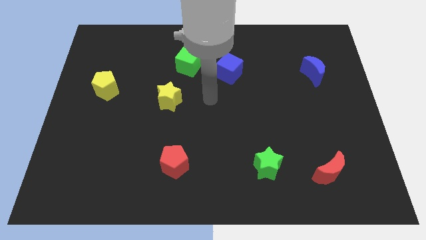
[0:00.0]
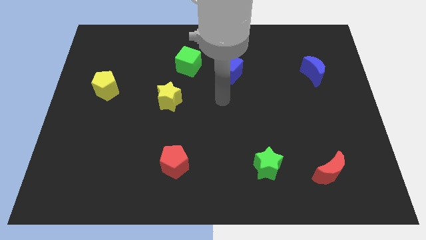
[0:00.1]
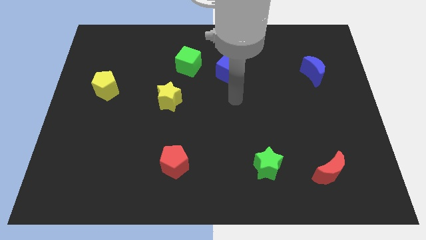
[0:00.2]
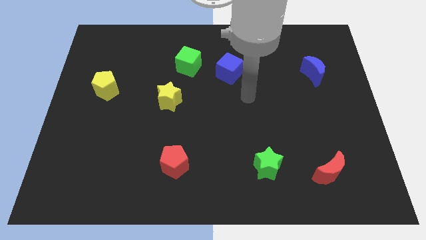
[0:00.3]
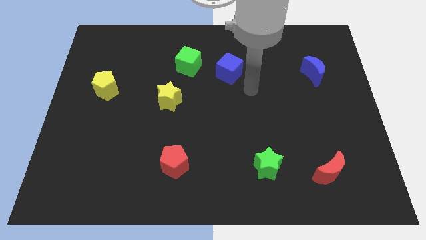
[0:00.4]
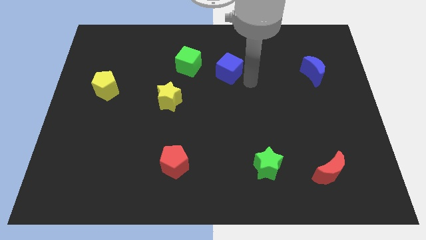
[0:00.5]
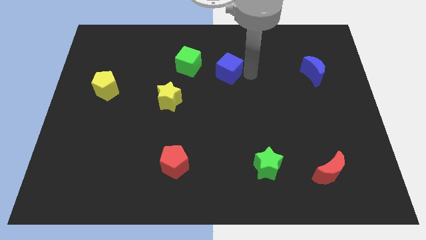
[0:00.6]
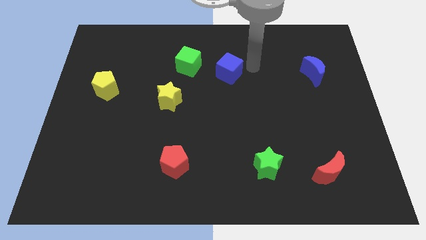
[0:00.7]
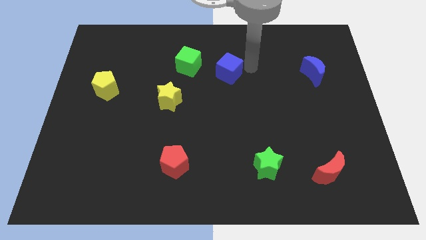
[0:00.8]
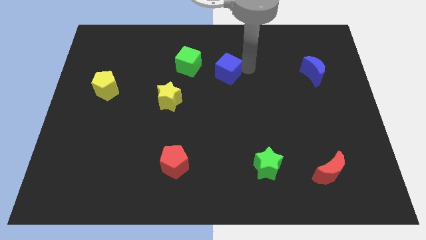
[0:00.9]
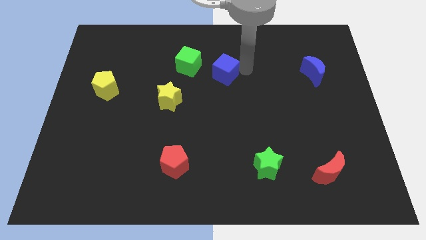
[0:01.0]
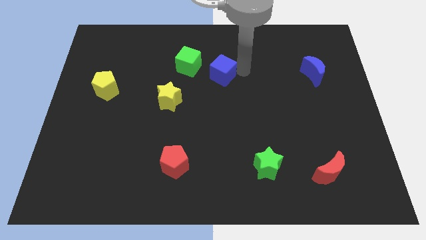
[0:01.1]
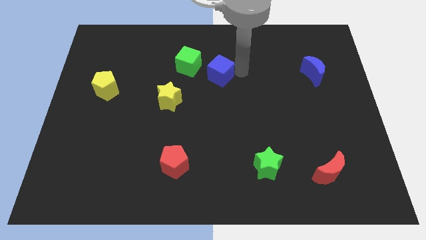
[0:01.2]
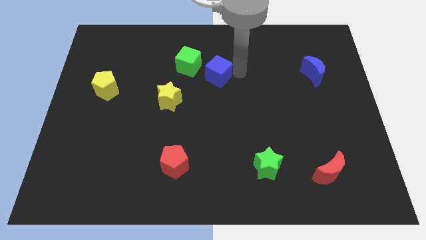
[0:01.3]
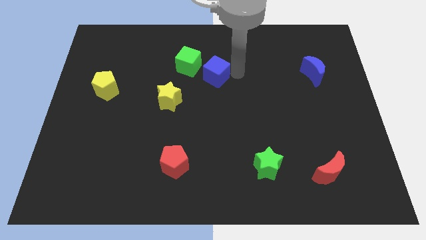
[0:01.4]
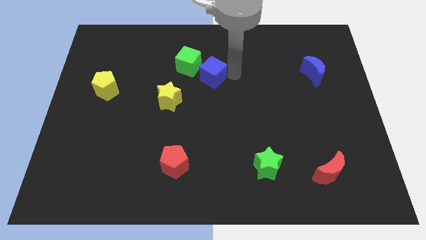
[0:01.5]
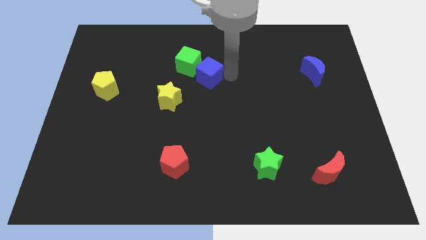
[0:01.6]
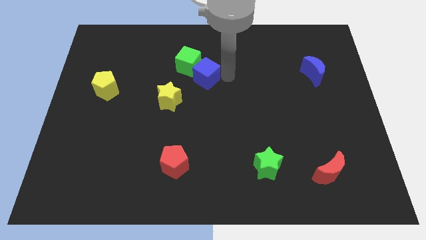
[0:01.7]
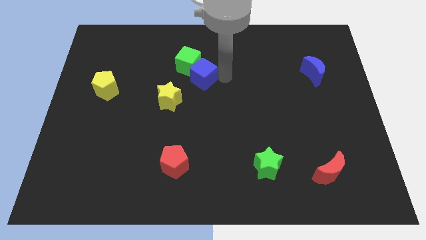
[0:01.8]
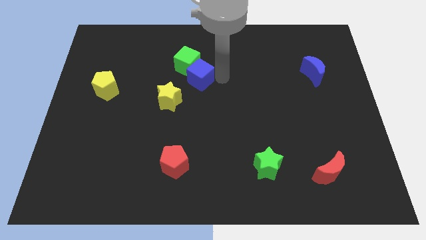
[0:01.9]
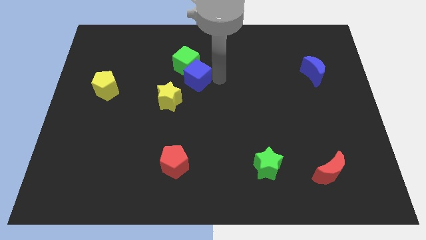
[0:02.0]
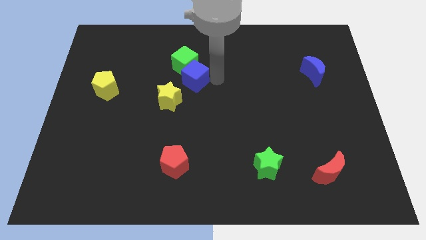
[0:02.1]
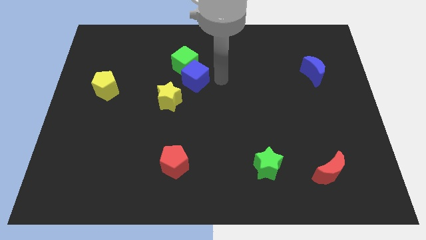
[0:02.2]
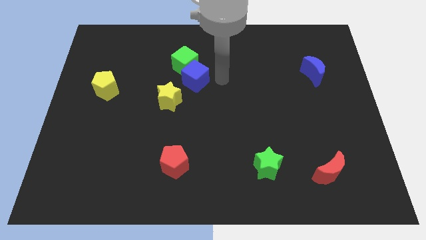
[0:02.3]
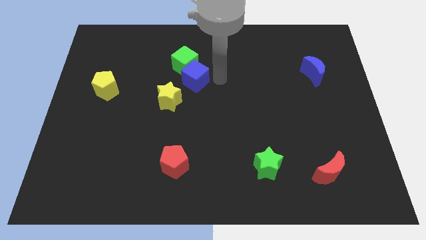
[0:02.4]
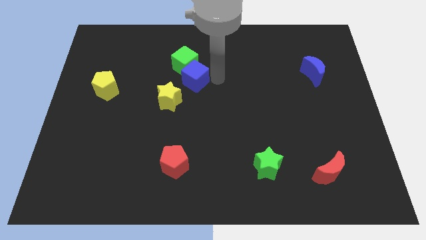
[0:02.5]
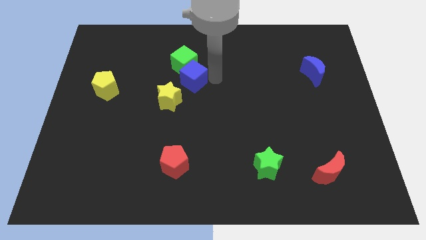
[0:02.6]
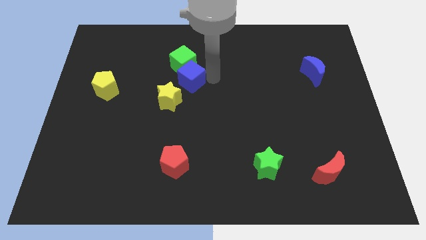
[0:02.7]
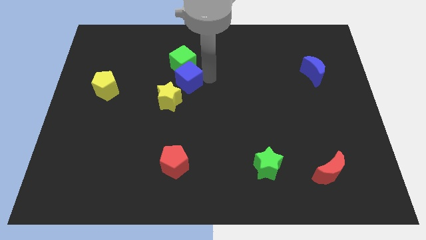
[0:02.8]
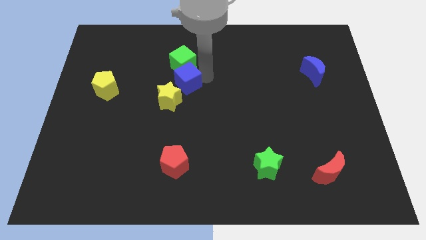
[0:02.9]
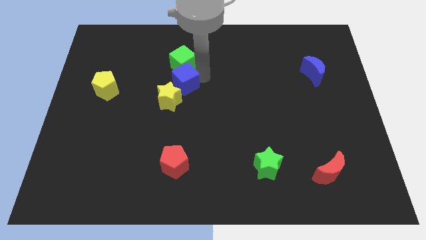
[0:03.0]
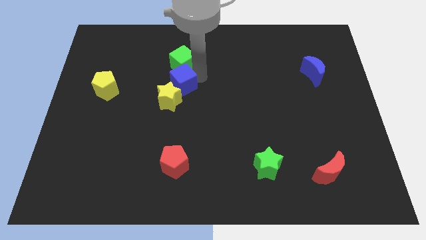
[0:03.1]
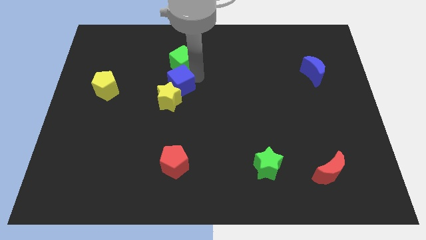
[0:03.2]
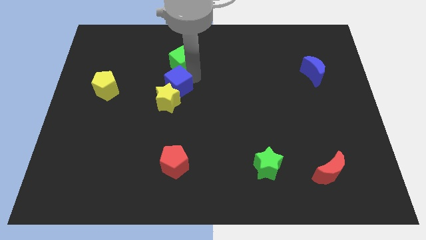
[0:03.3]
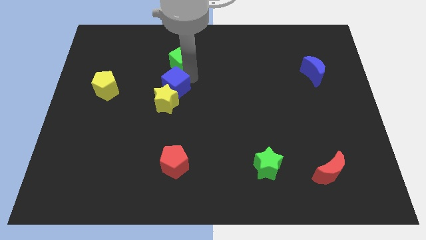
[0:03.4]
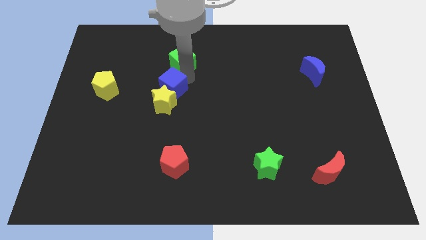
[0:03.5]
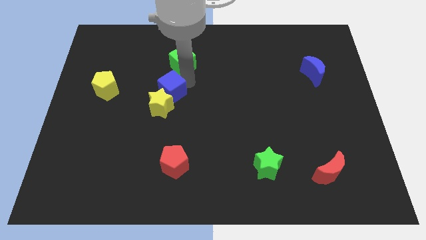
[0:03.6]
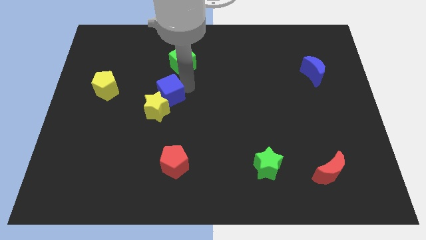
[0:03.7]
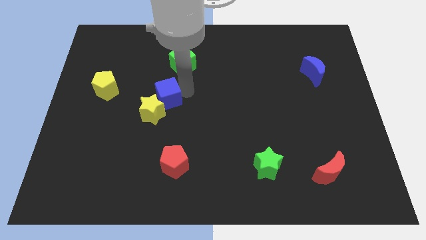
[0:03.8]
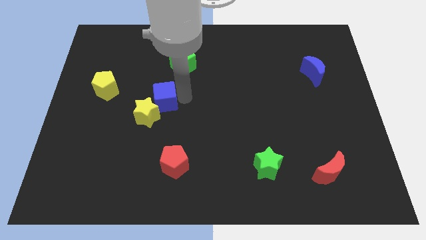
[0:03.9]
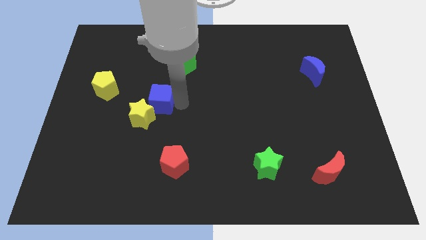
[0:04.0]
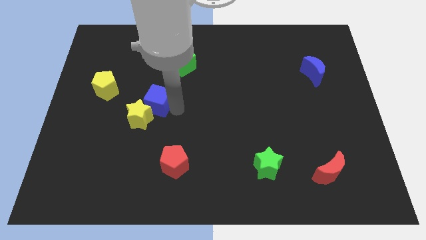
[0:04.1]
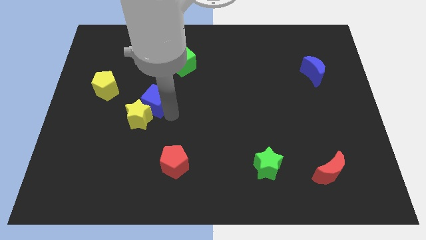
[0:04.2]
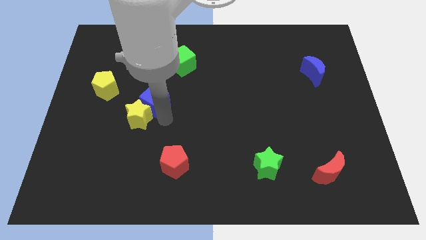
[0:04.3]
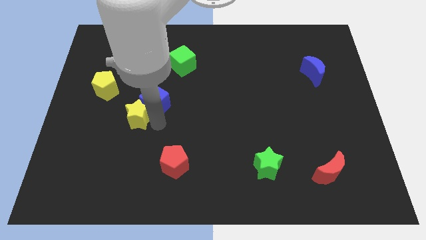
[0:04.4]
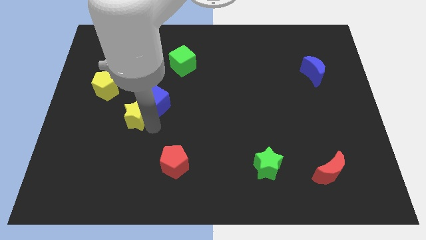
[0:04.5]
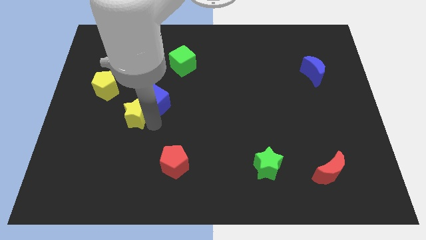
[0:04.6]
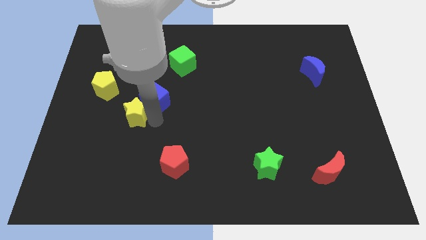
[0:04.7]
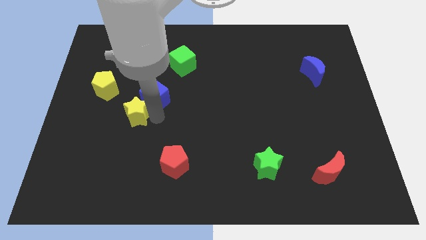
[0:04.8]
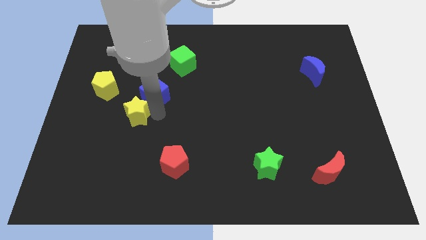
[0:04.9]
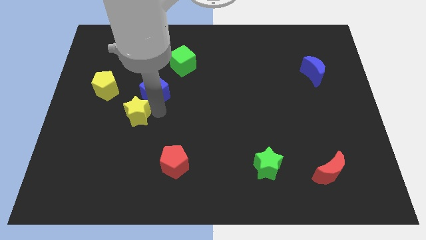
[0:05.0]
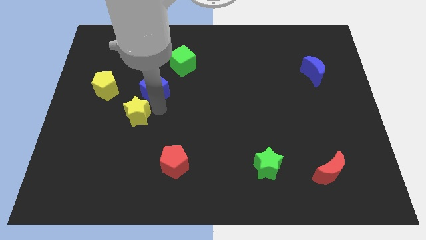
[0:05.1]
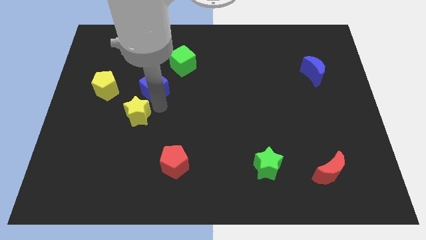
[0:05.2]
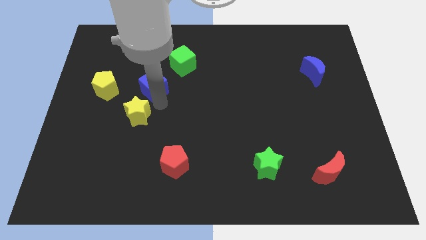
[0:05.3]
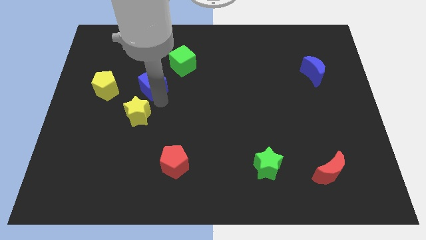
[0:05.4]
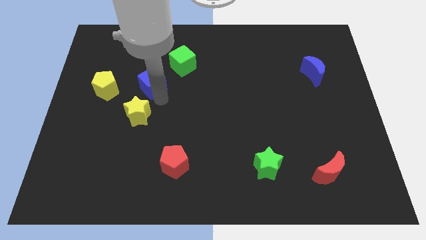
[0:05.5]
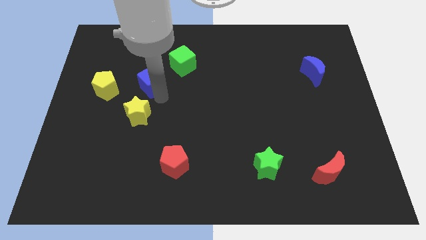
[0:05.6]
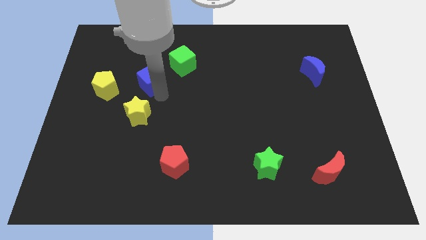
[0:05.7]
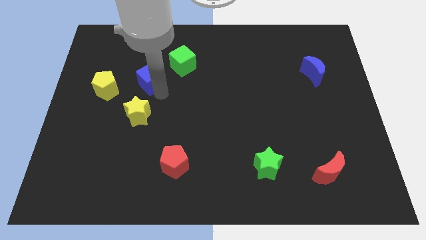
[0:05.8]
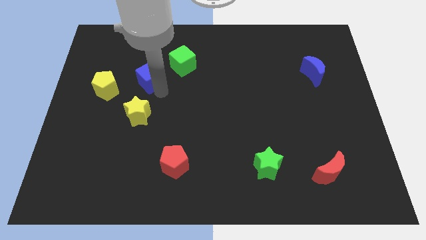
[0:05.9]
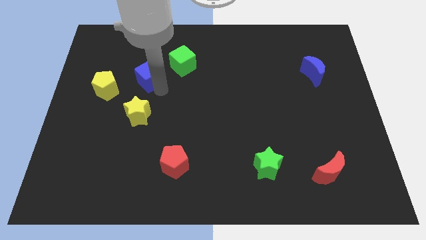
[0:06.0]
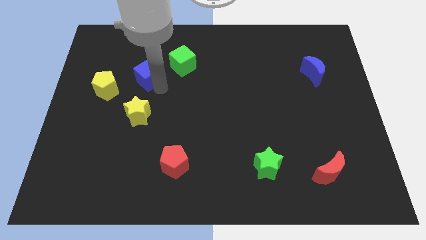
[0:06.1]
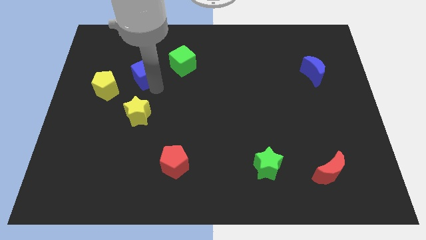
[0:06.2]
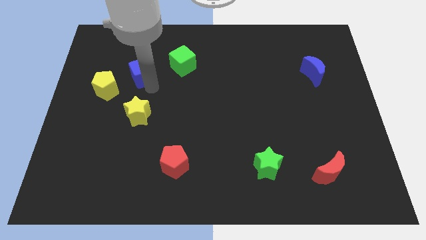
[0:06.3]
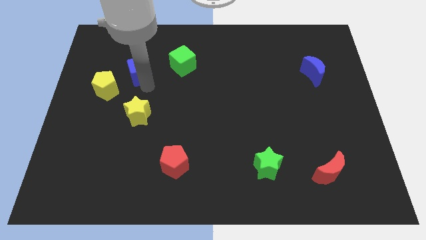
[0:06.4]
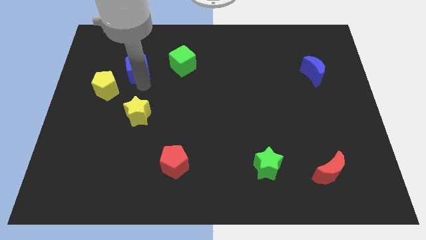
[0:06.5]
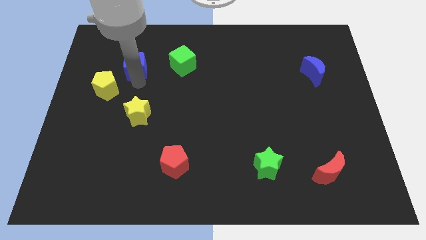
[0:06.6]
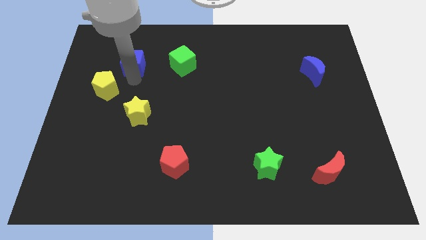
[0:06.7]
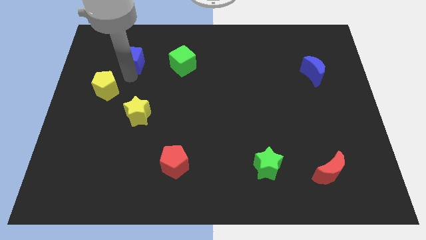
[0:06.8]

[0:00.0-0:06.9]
put the blue cube to the top side of the yellow pentagon
